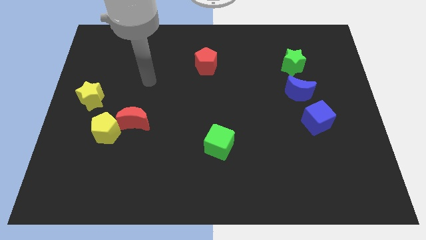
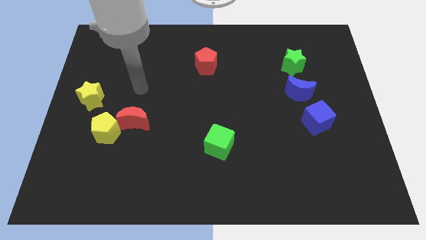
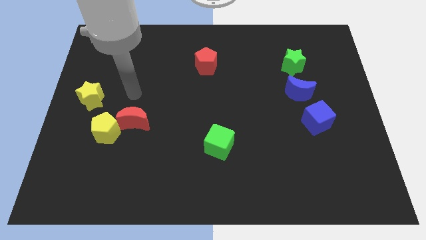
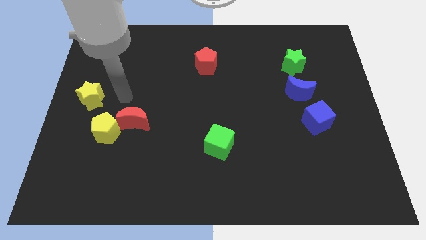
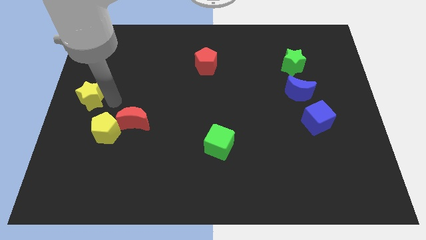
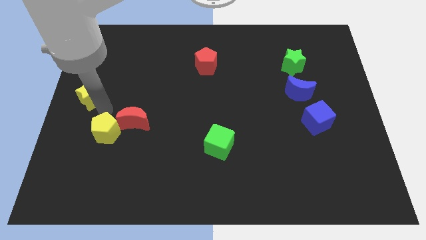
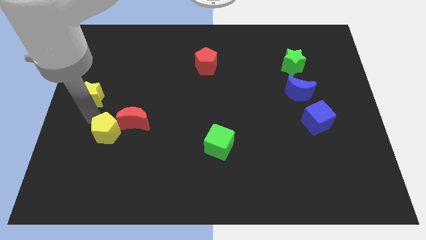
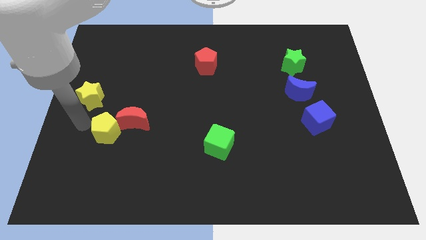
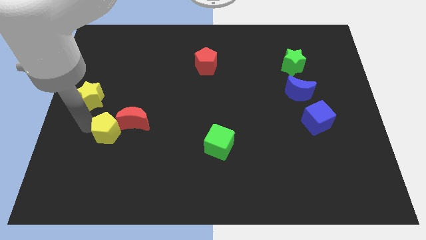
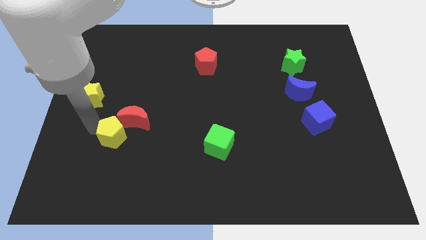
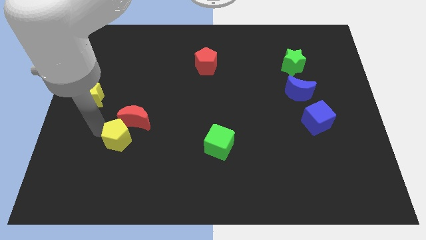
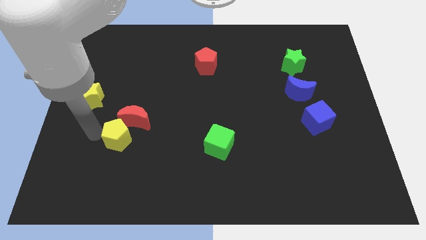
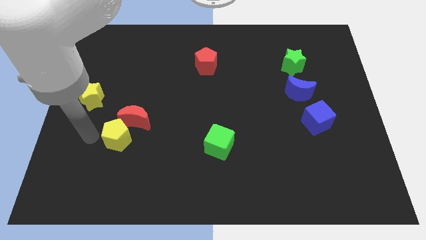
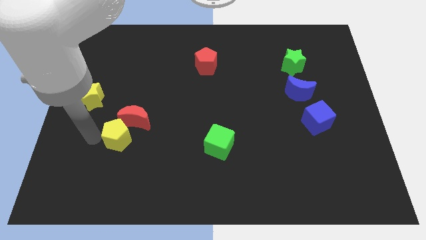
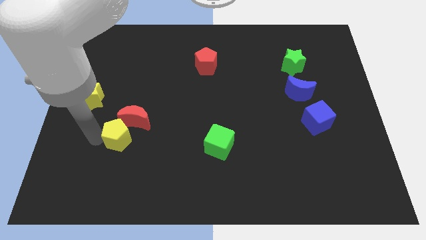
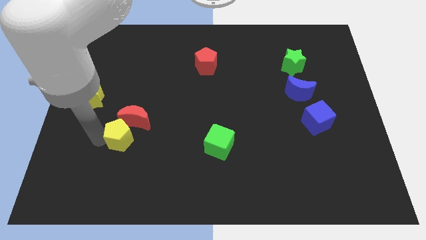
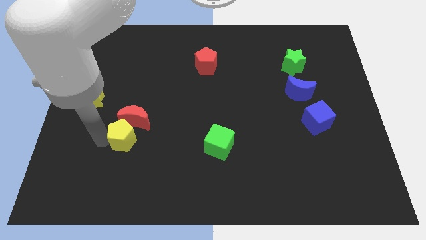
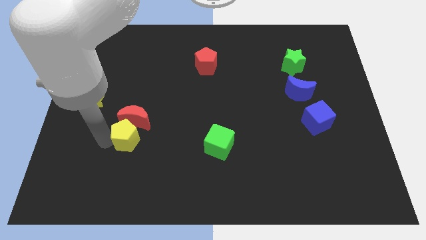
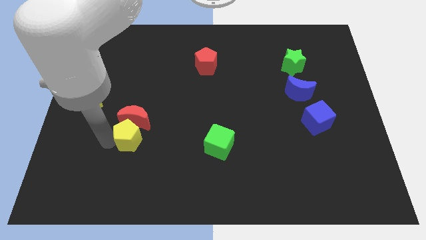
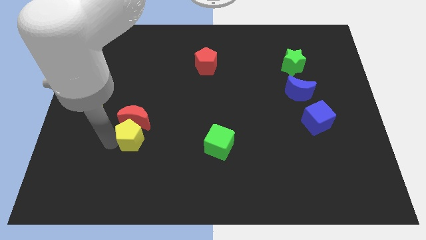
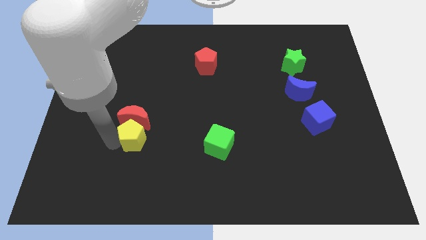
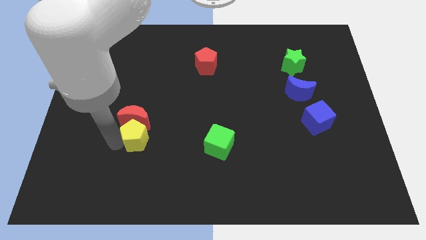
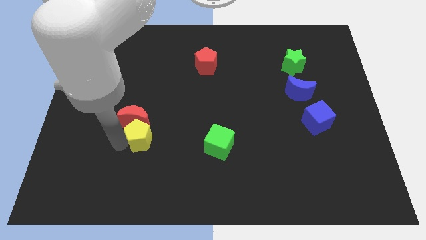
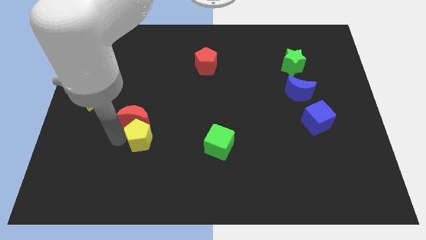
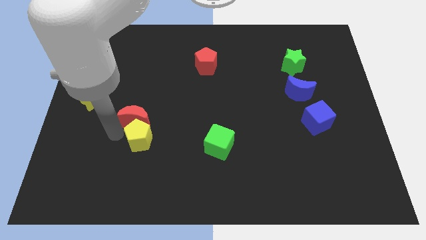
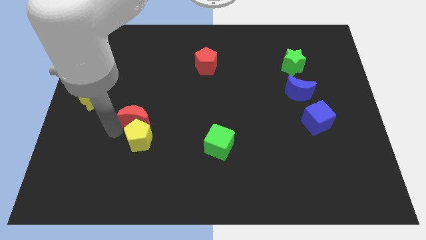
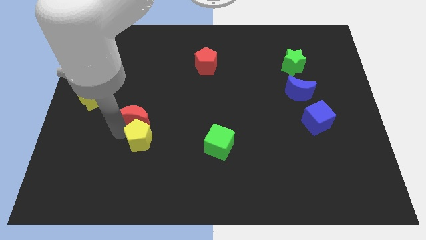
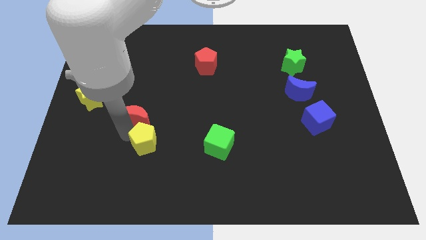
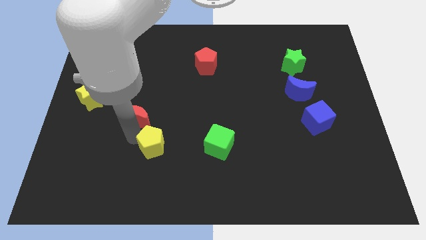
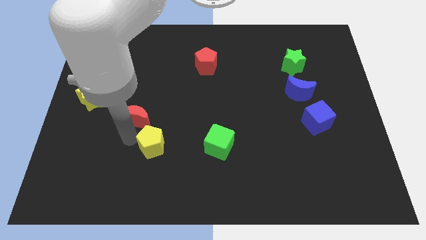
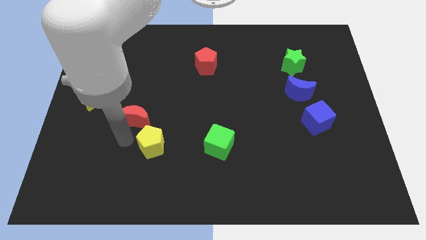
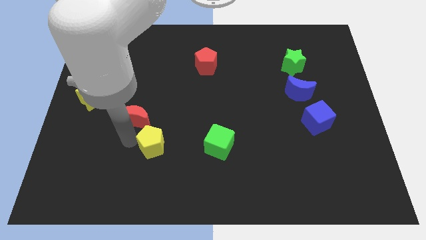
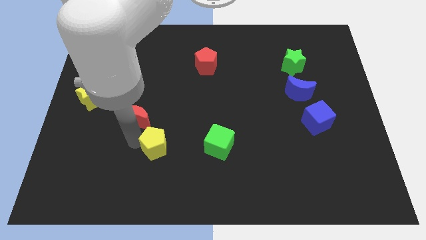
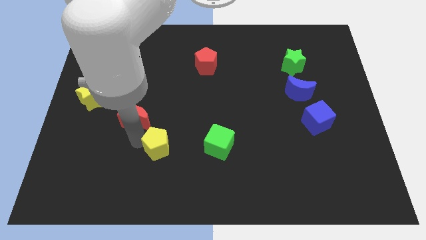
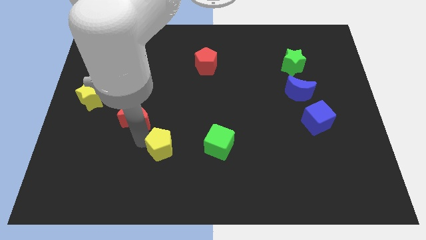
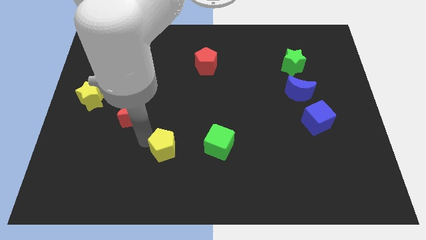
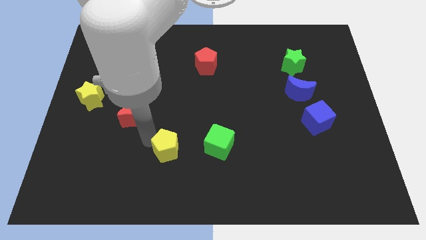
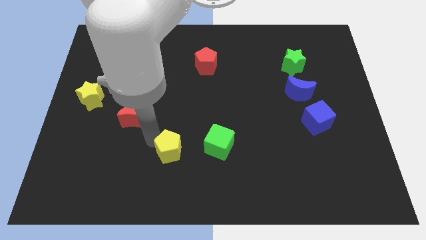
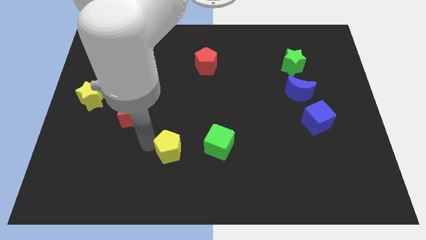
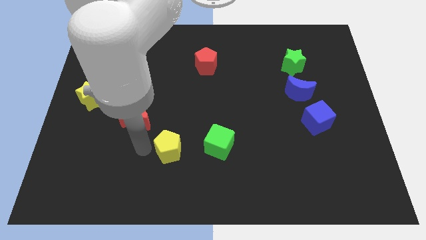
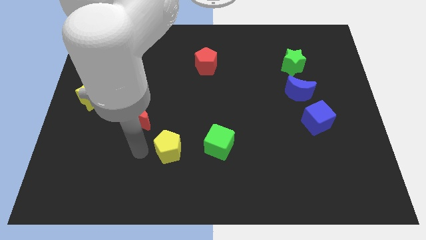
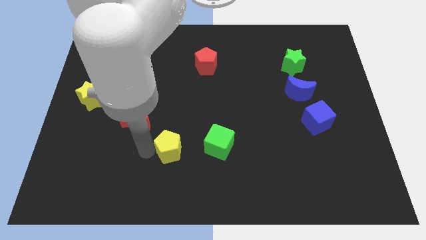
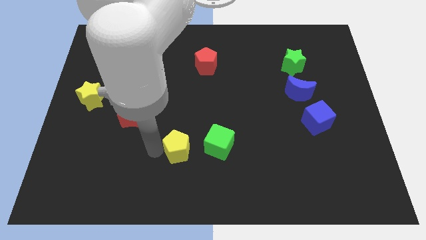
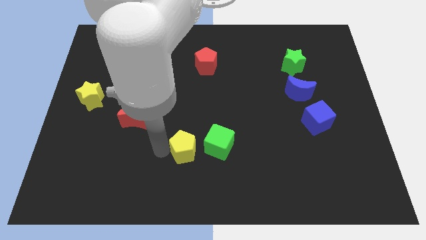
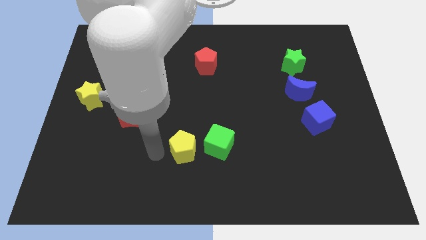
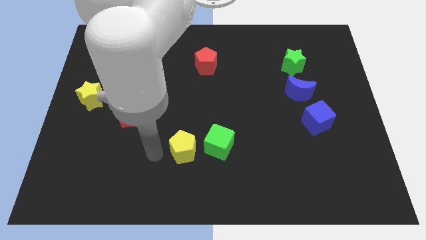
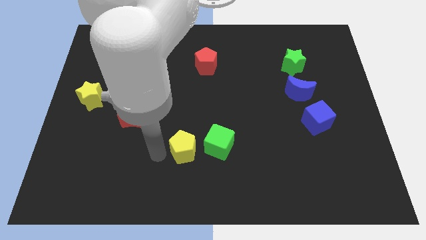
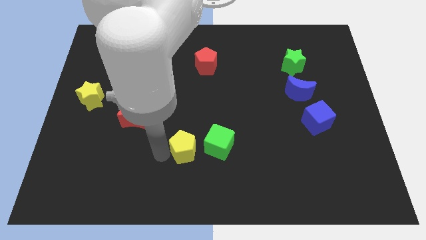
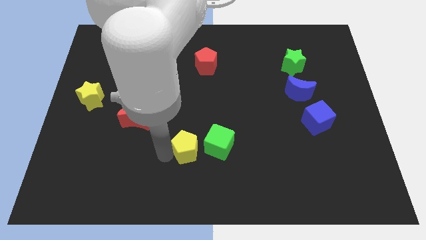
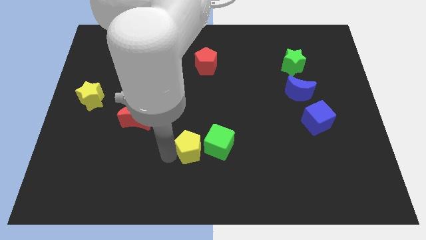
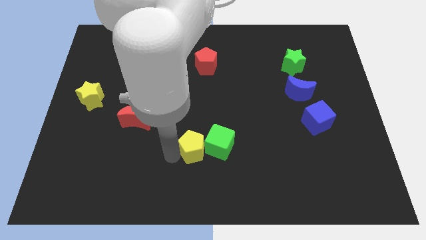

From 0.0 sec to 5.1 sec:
put the yellow pentagon to the green cube

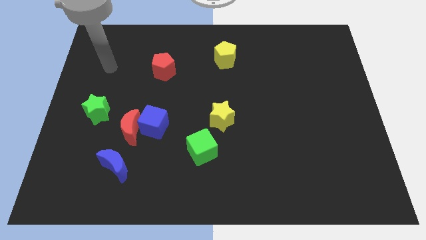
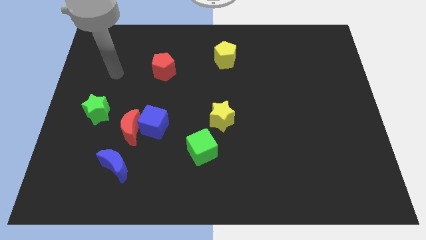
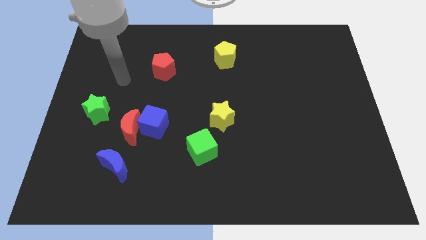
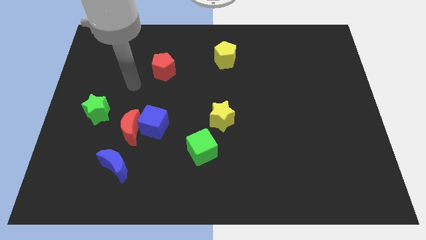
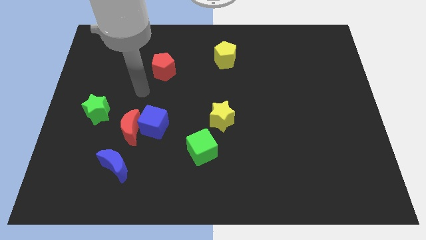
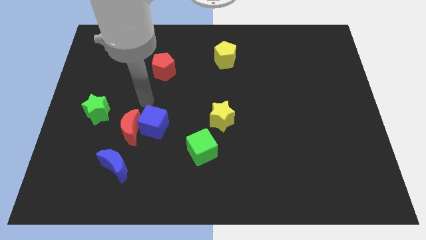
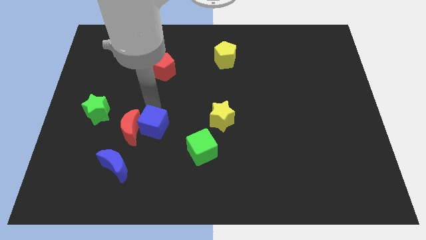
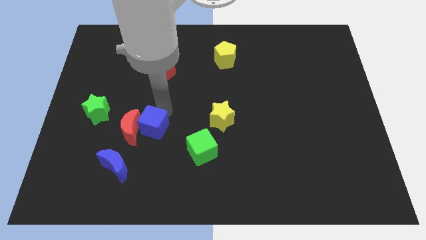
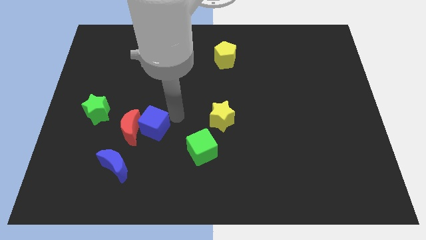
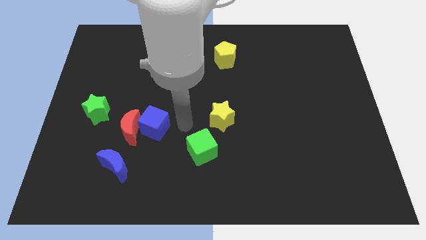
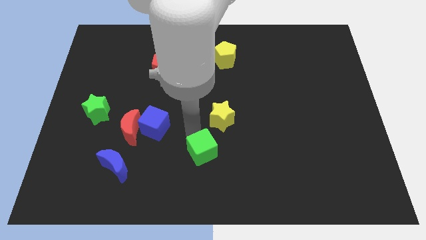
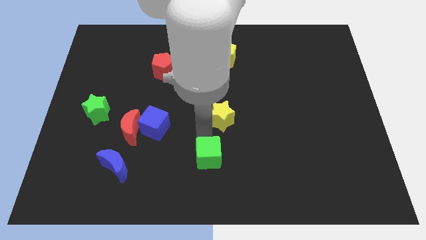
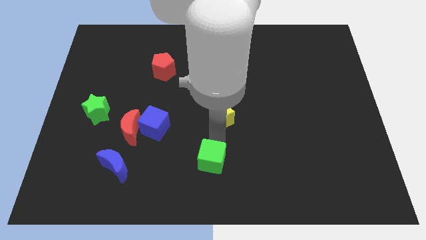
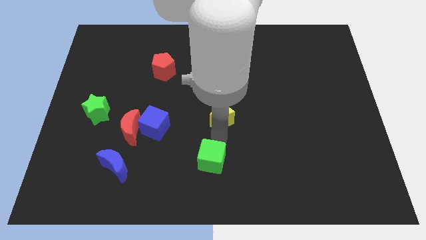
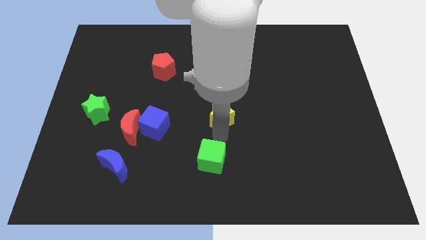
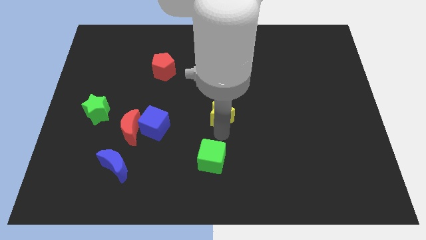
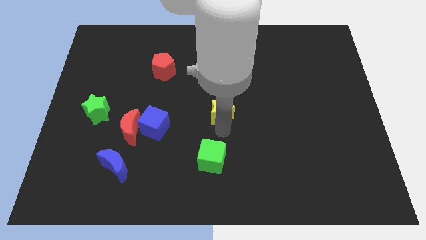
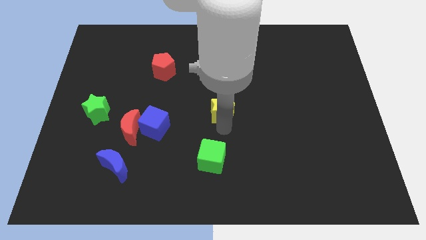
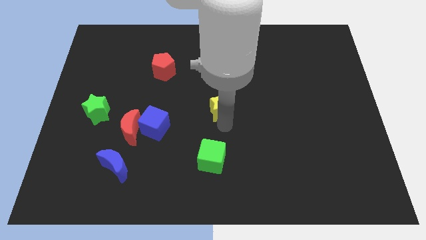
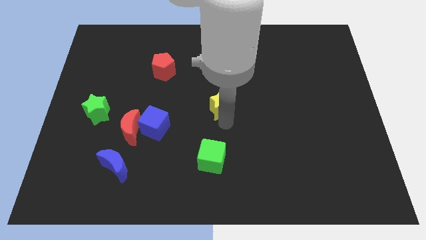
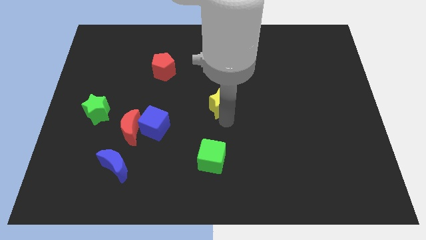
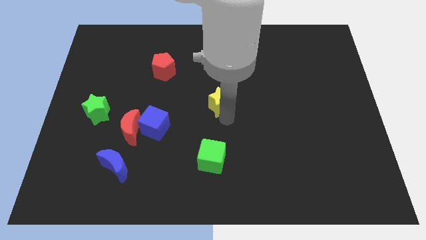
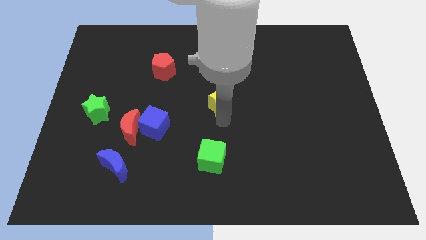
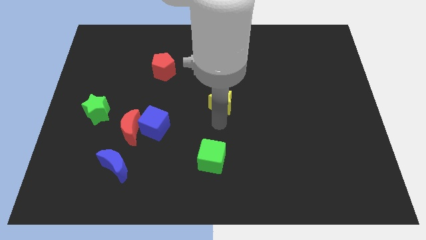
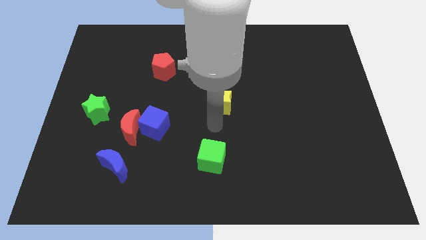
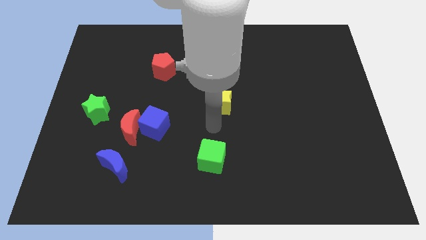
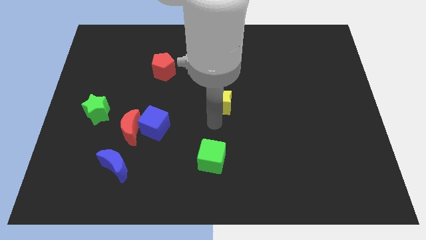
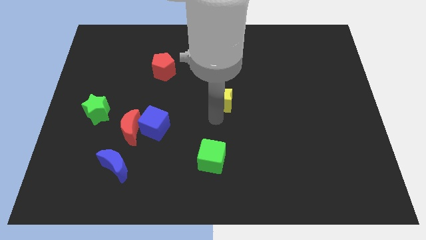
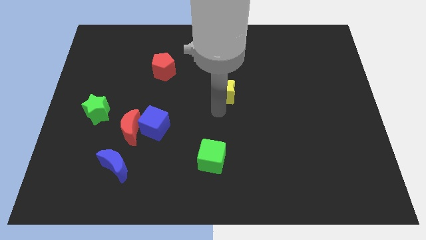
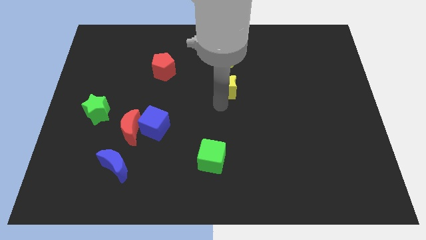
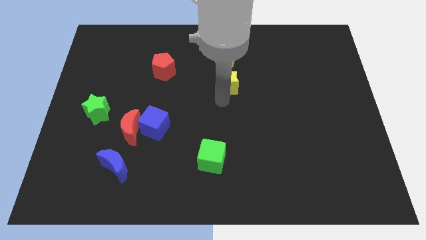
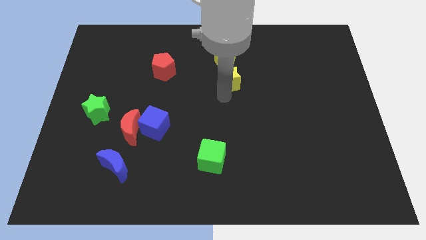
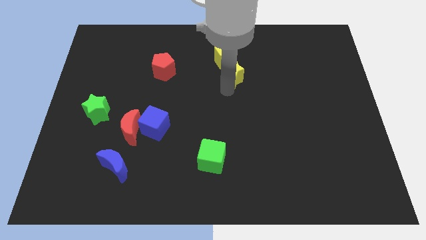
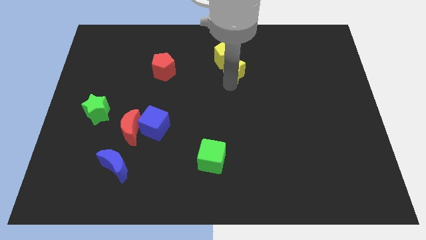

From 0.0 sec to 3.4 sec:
move the yellow star close to the yellow pentagon
